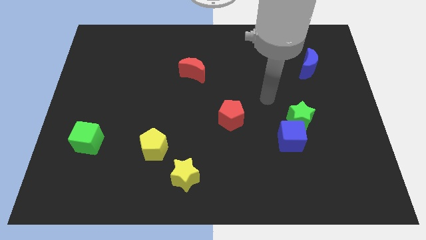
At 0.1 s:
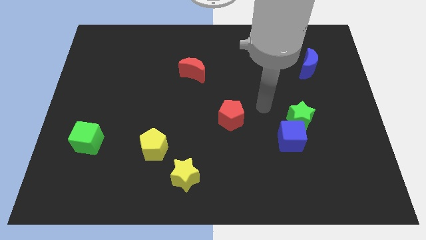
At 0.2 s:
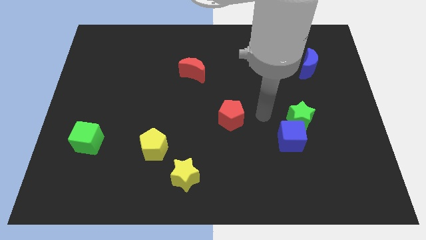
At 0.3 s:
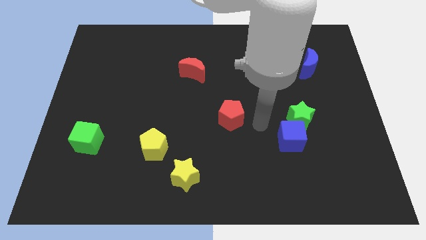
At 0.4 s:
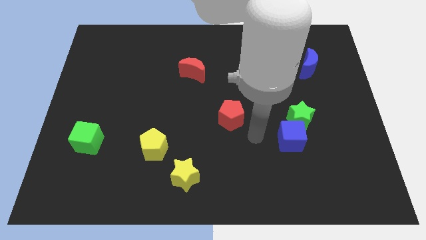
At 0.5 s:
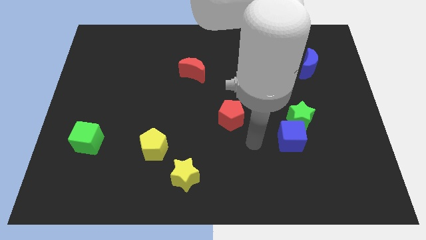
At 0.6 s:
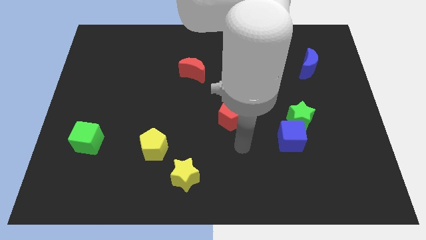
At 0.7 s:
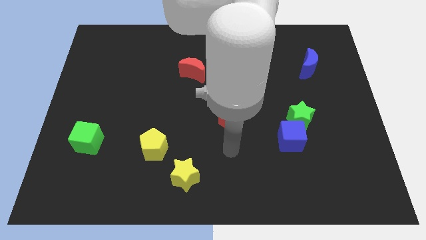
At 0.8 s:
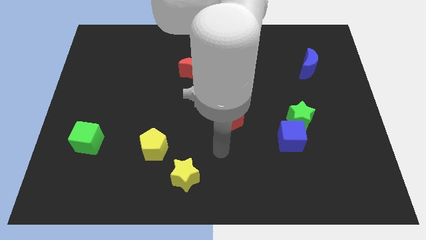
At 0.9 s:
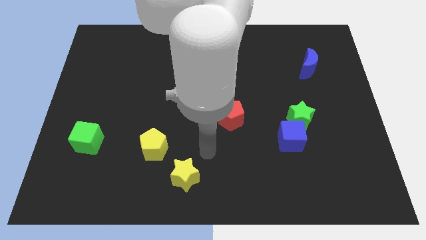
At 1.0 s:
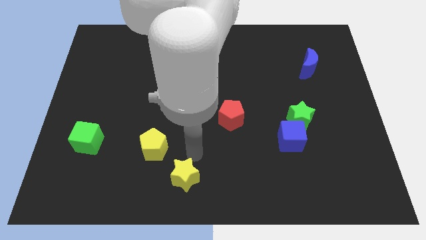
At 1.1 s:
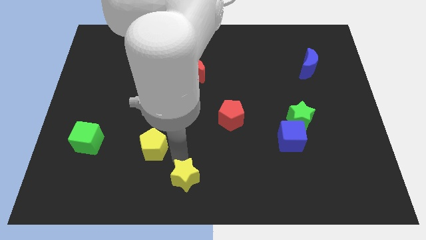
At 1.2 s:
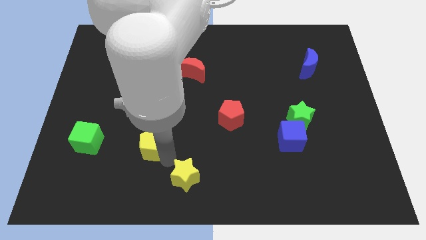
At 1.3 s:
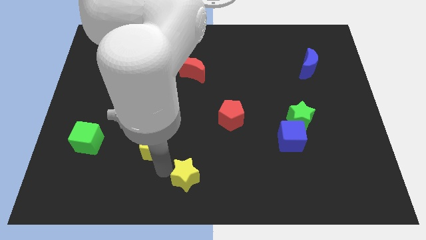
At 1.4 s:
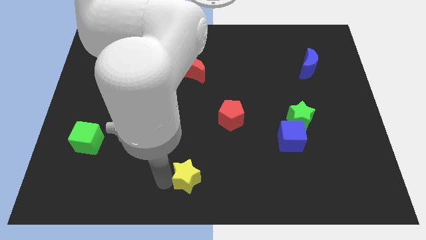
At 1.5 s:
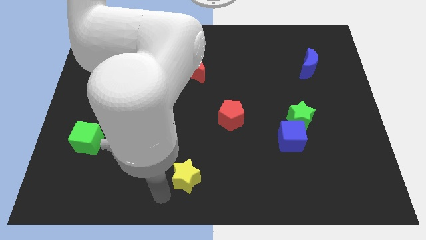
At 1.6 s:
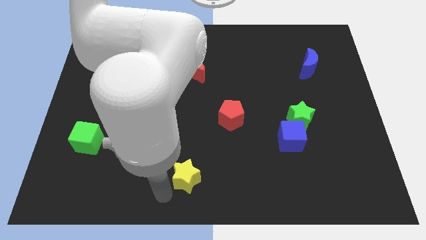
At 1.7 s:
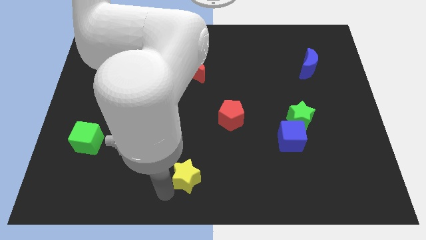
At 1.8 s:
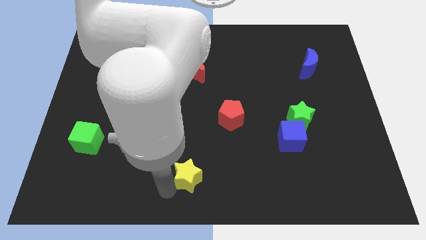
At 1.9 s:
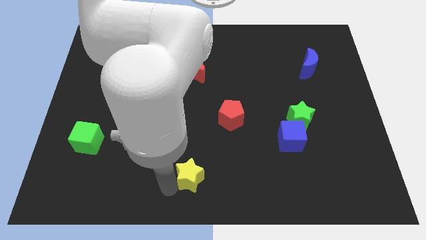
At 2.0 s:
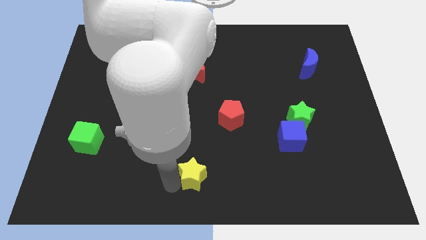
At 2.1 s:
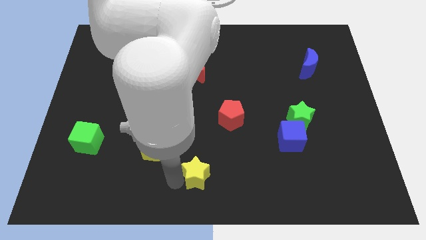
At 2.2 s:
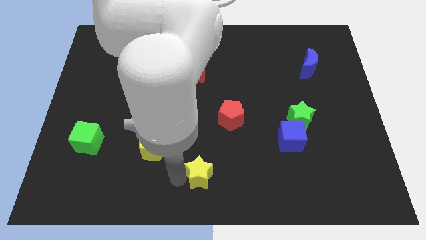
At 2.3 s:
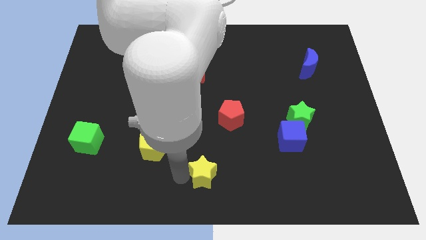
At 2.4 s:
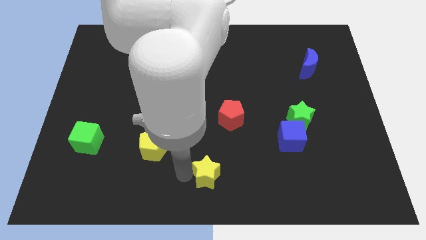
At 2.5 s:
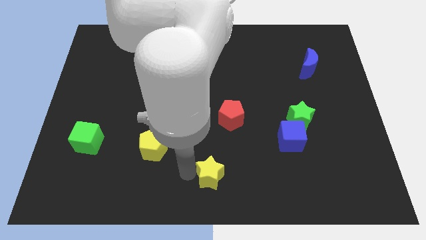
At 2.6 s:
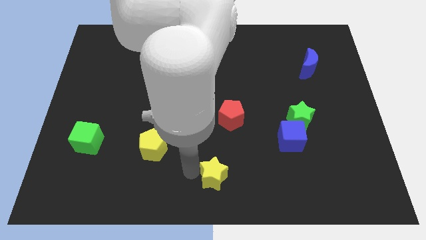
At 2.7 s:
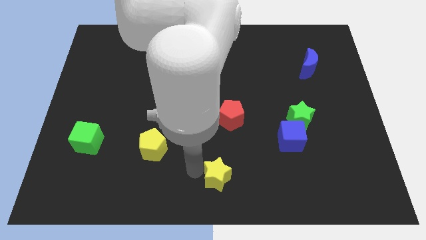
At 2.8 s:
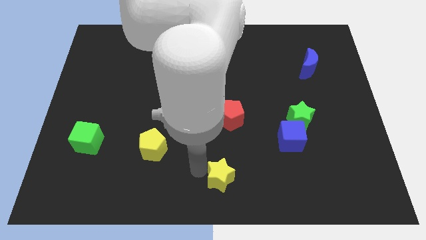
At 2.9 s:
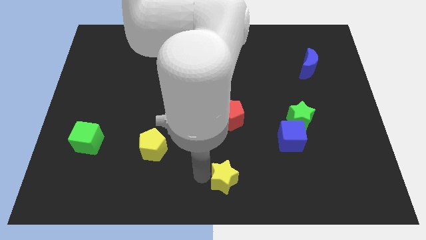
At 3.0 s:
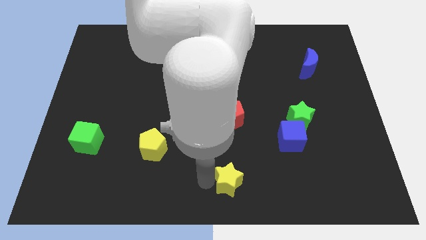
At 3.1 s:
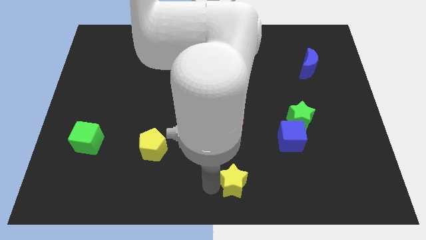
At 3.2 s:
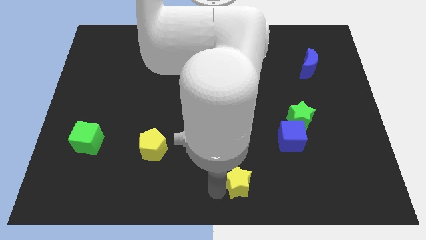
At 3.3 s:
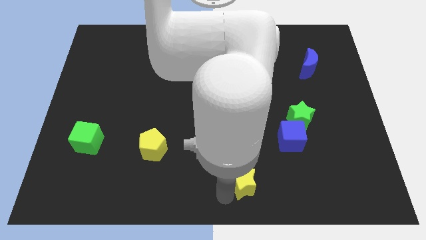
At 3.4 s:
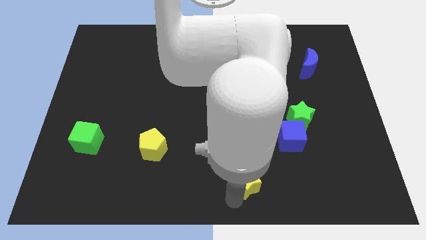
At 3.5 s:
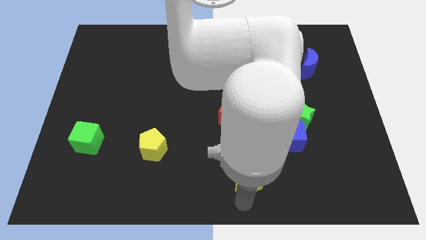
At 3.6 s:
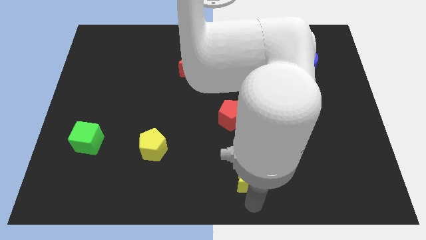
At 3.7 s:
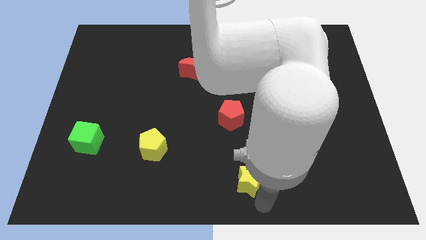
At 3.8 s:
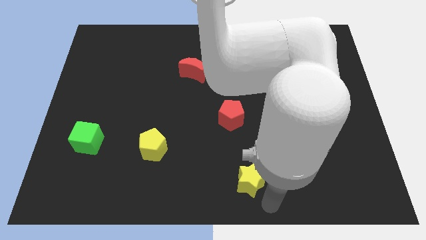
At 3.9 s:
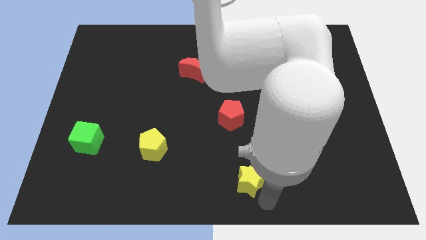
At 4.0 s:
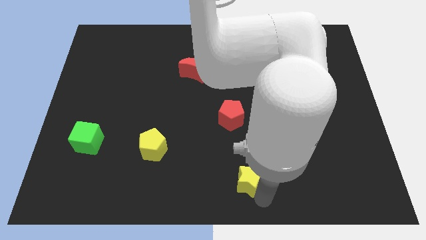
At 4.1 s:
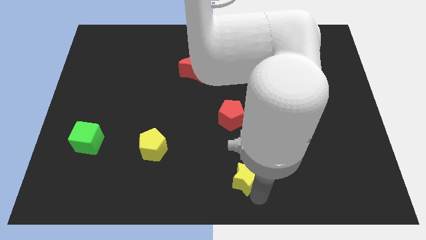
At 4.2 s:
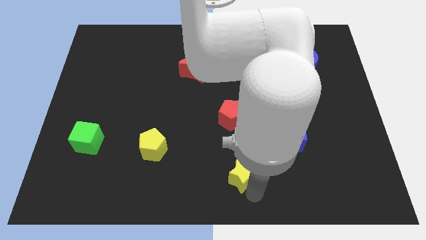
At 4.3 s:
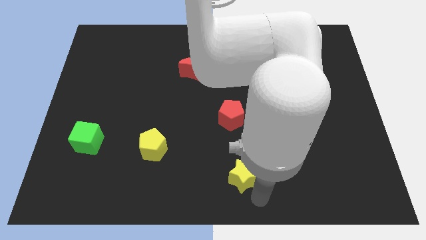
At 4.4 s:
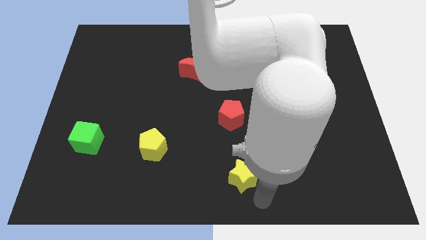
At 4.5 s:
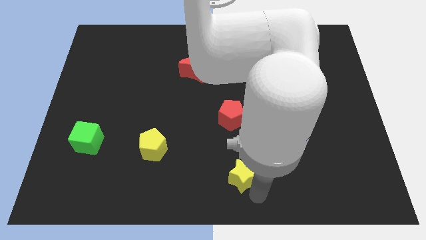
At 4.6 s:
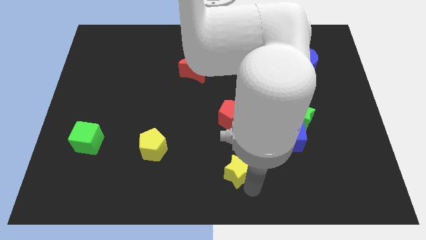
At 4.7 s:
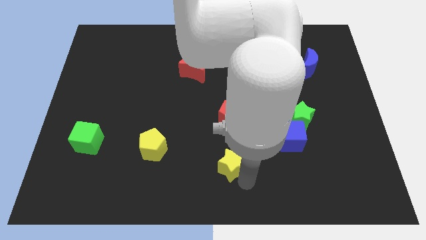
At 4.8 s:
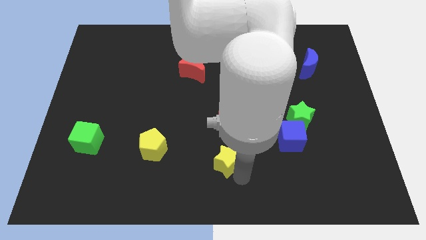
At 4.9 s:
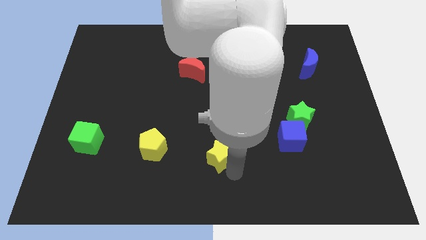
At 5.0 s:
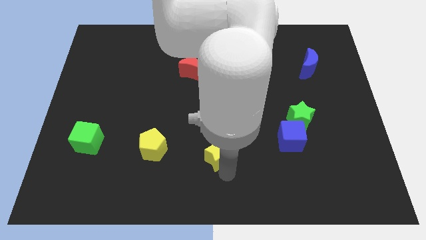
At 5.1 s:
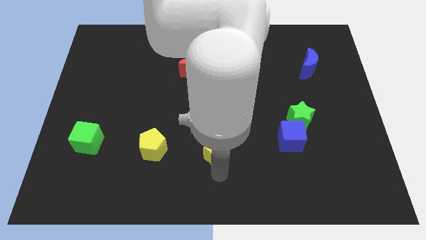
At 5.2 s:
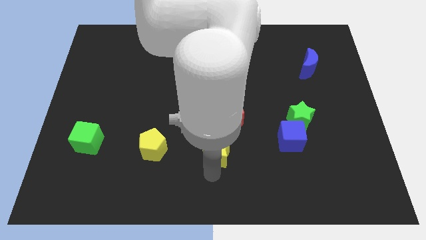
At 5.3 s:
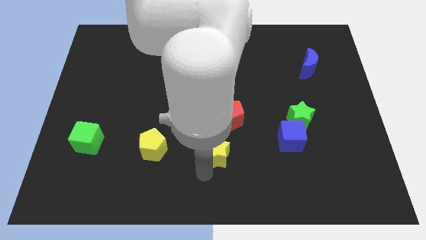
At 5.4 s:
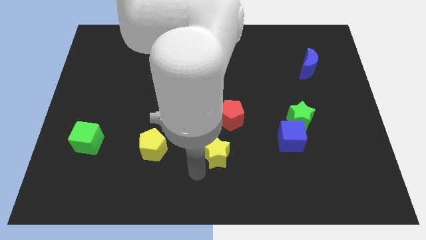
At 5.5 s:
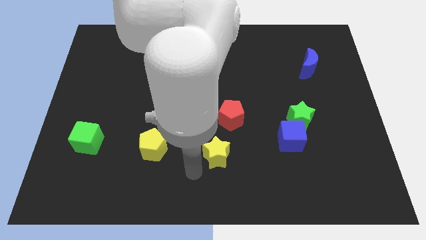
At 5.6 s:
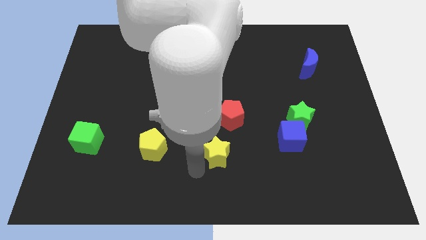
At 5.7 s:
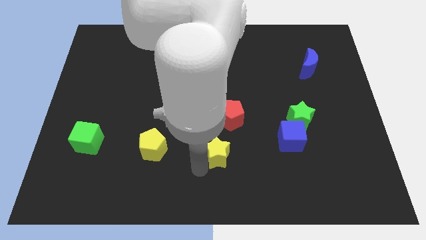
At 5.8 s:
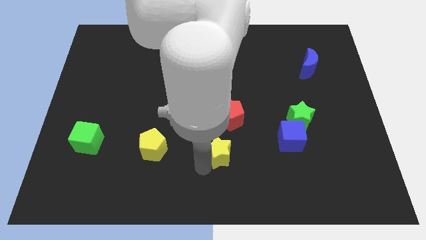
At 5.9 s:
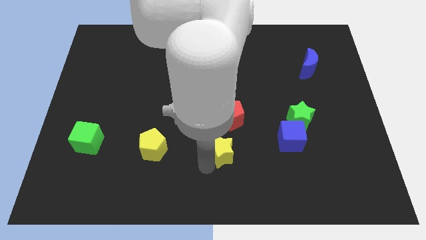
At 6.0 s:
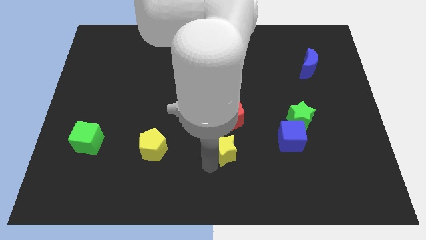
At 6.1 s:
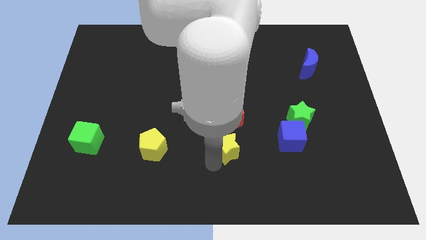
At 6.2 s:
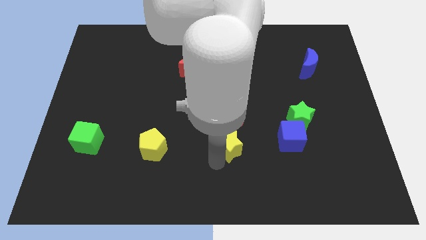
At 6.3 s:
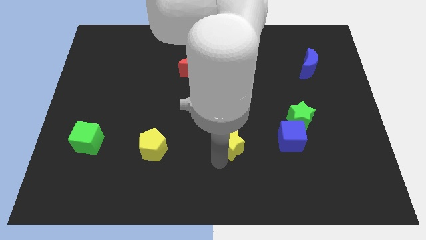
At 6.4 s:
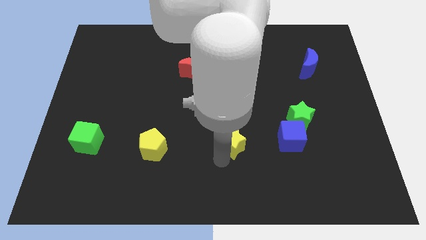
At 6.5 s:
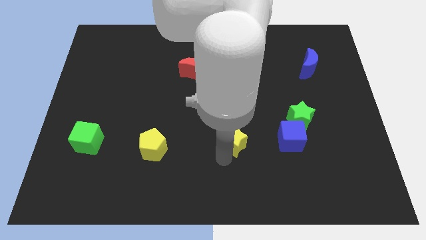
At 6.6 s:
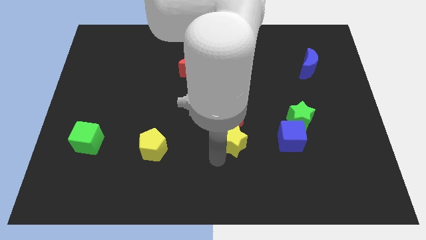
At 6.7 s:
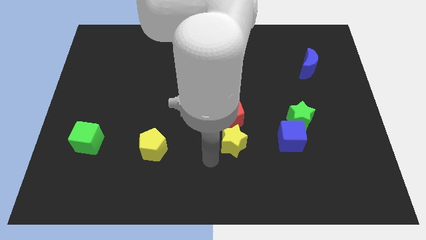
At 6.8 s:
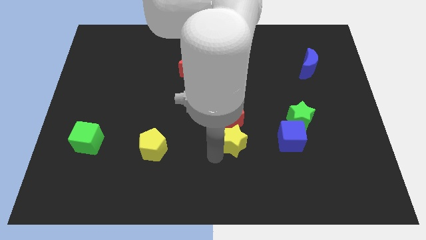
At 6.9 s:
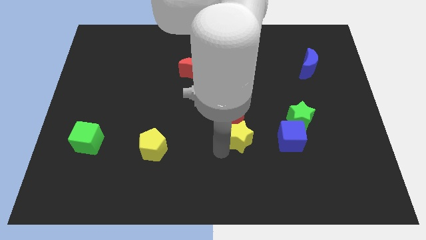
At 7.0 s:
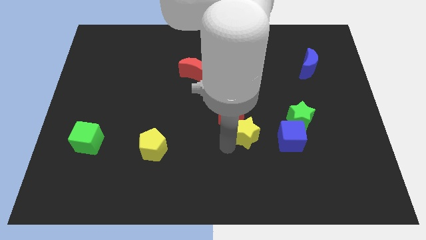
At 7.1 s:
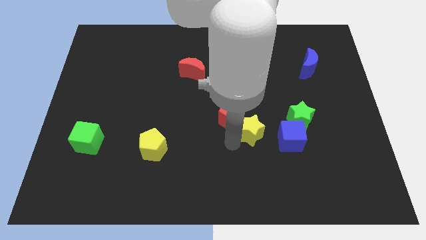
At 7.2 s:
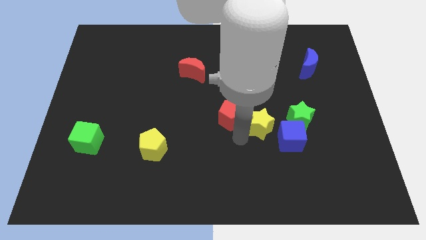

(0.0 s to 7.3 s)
slide the yellow star diagonally upwards and right

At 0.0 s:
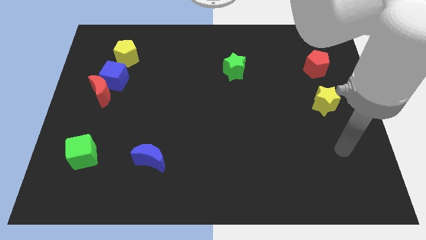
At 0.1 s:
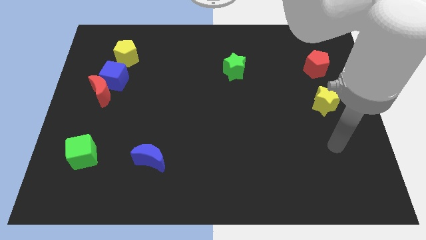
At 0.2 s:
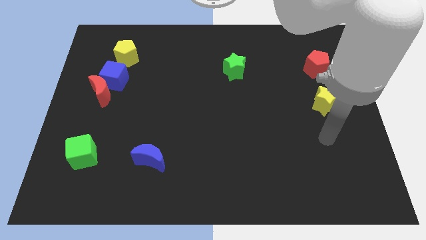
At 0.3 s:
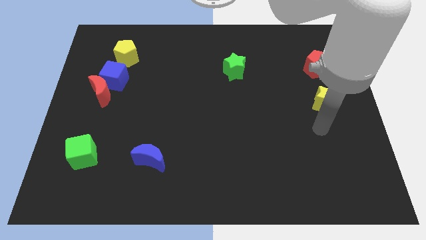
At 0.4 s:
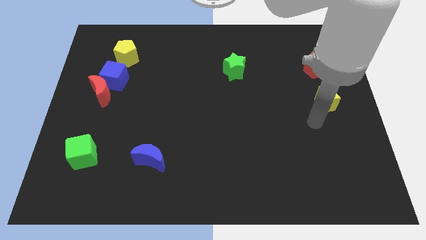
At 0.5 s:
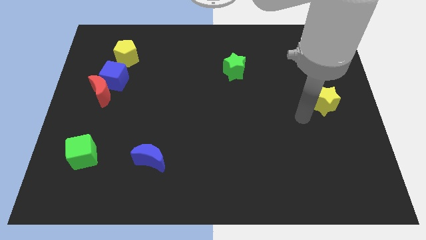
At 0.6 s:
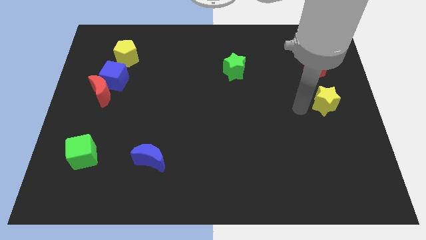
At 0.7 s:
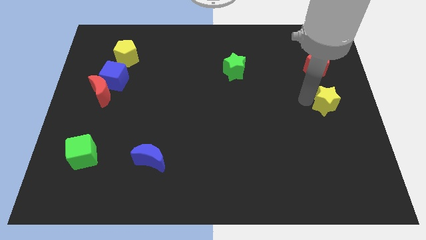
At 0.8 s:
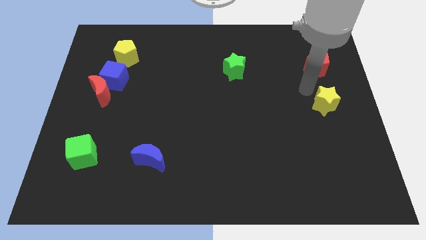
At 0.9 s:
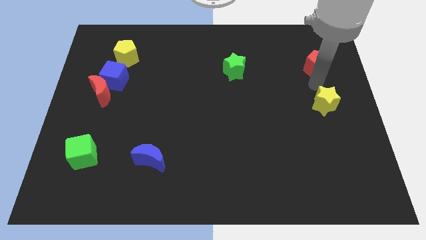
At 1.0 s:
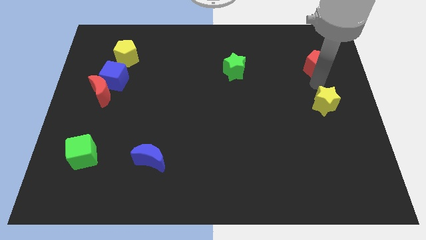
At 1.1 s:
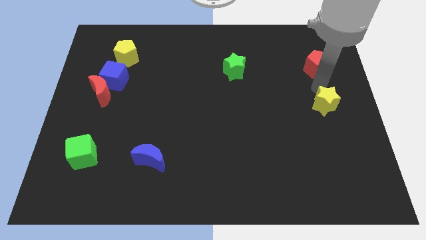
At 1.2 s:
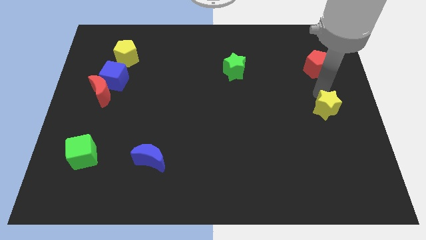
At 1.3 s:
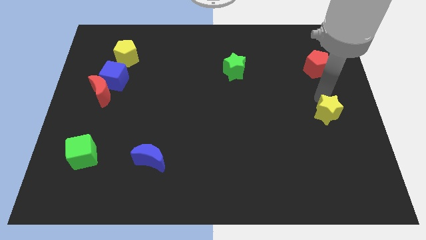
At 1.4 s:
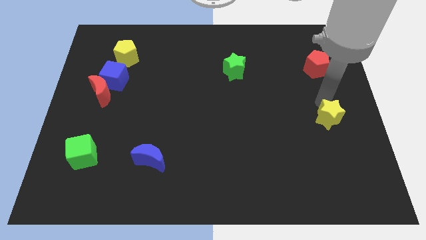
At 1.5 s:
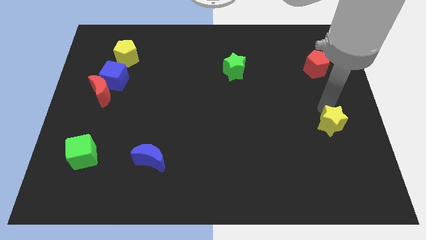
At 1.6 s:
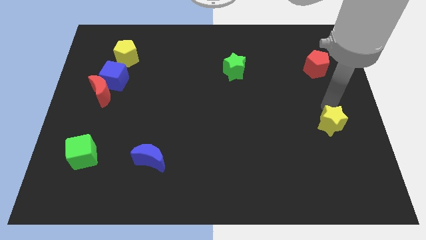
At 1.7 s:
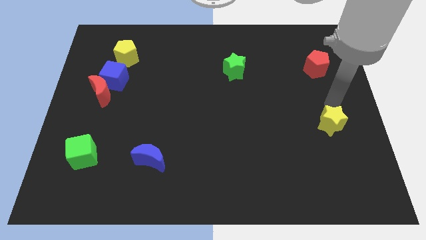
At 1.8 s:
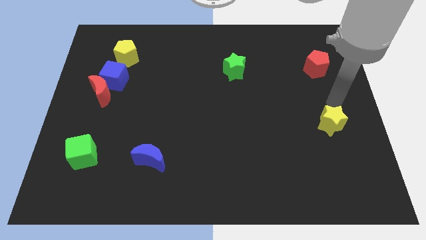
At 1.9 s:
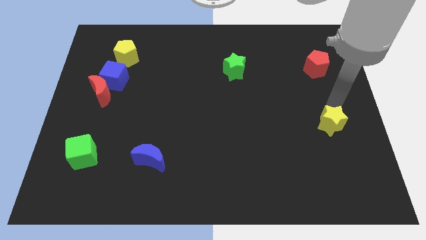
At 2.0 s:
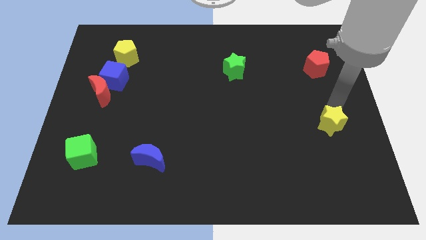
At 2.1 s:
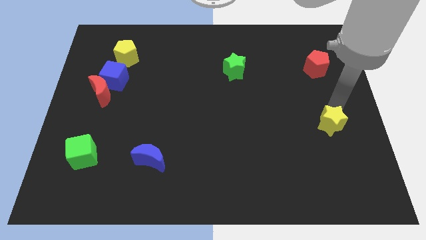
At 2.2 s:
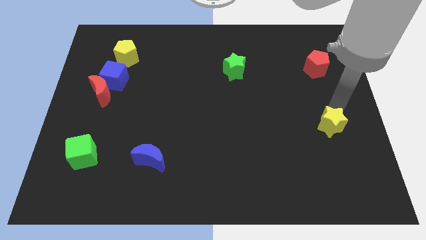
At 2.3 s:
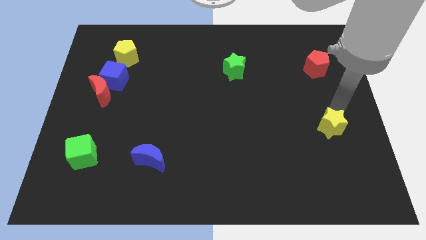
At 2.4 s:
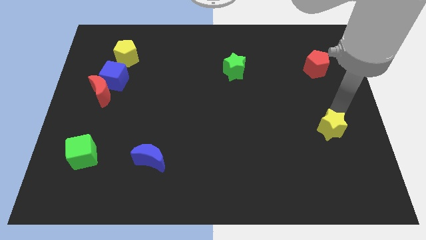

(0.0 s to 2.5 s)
slide the yellow star downwards a bit
